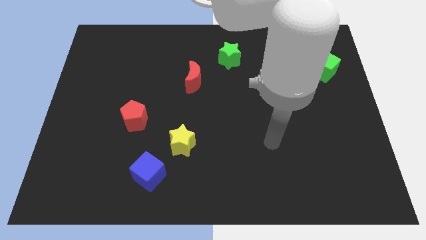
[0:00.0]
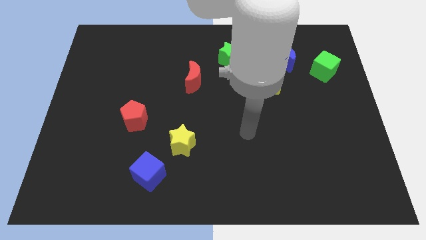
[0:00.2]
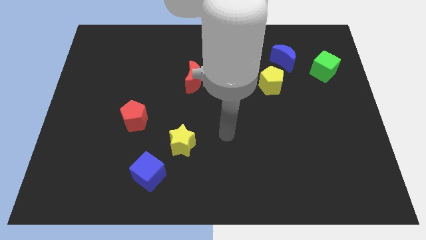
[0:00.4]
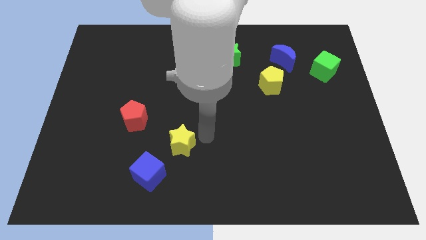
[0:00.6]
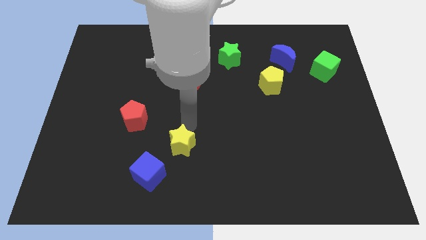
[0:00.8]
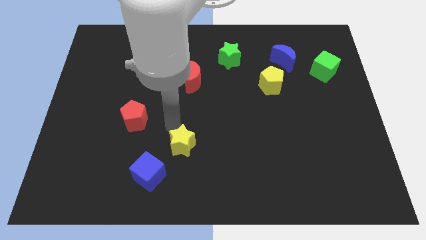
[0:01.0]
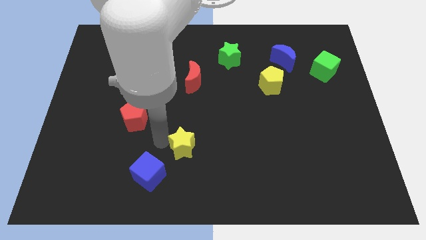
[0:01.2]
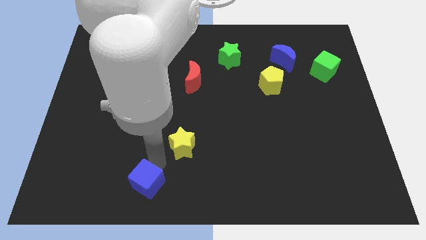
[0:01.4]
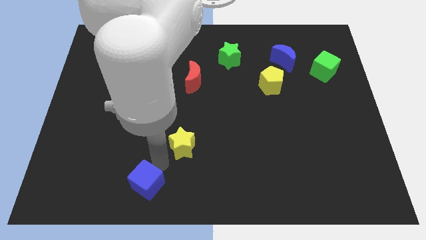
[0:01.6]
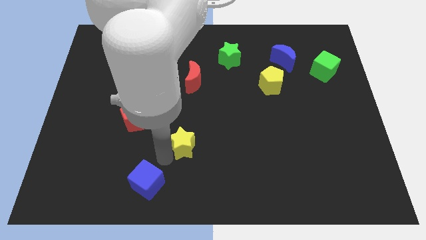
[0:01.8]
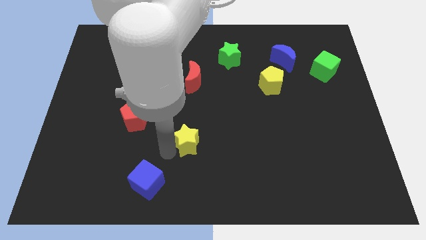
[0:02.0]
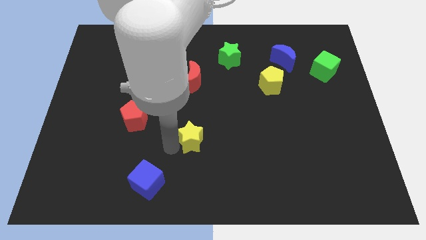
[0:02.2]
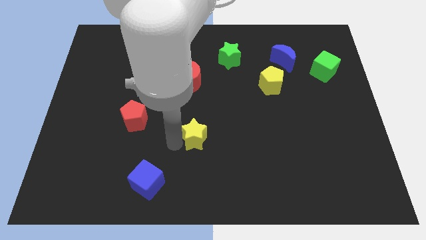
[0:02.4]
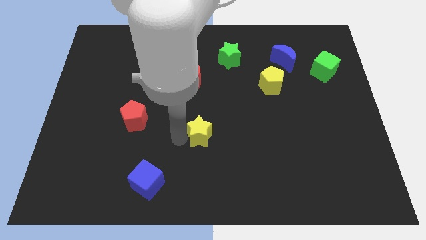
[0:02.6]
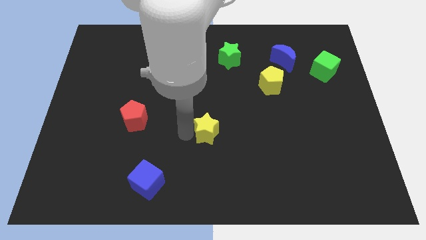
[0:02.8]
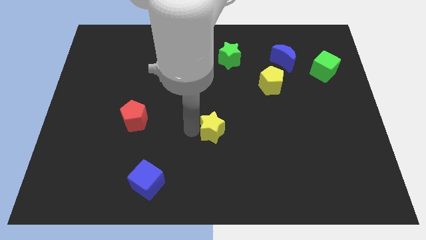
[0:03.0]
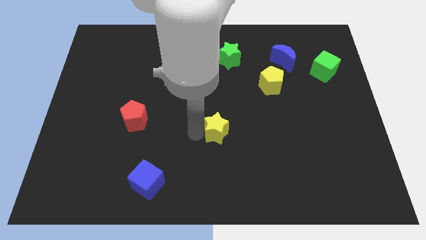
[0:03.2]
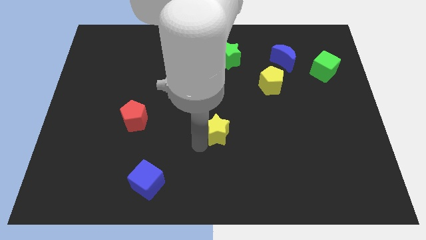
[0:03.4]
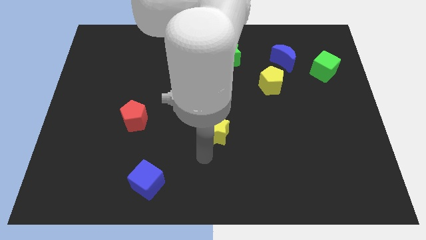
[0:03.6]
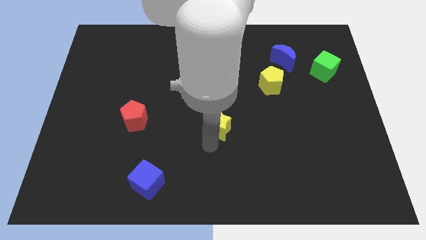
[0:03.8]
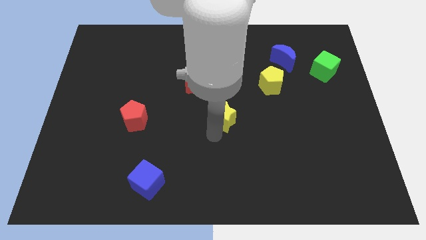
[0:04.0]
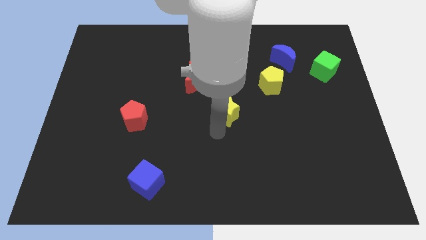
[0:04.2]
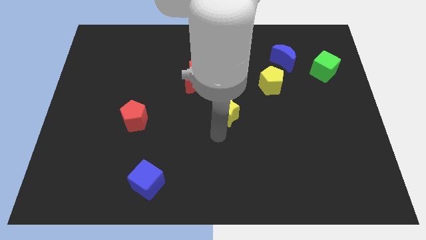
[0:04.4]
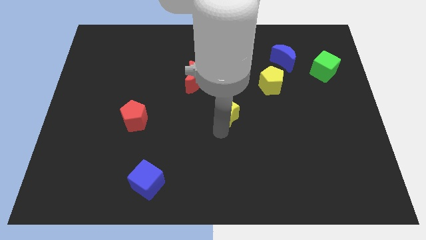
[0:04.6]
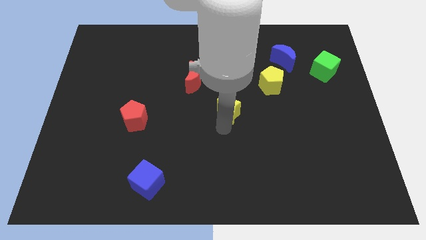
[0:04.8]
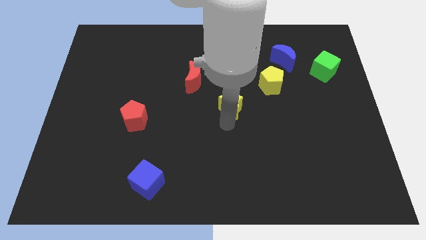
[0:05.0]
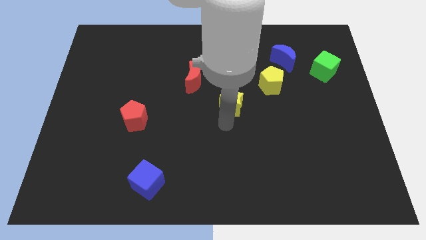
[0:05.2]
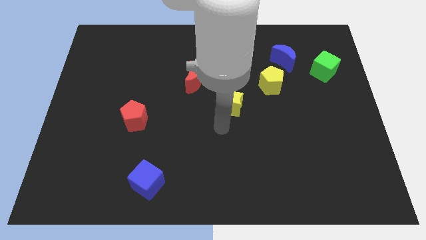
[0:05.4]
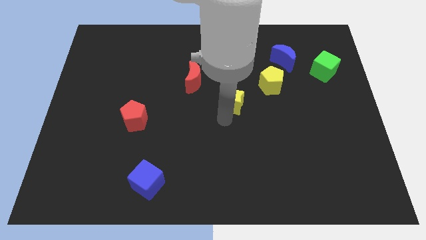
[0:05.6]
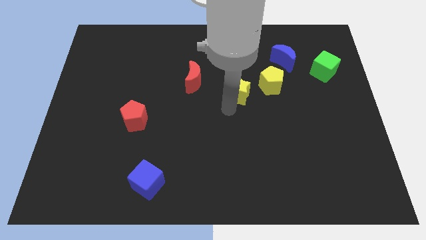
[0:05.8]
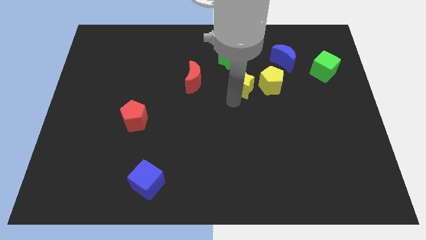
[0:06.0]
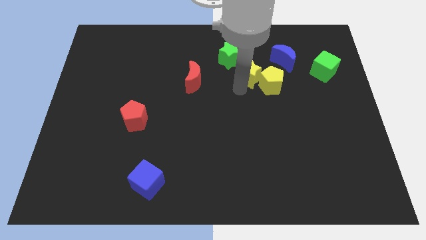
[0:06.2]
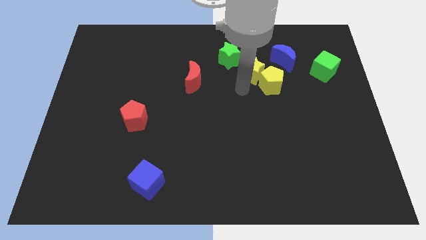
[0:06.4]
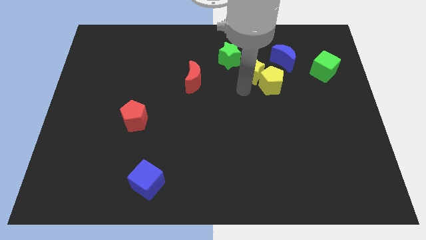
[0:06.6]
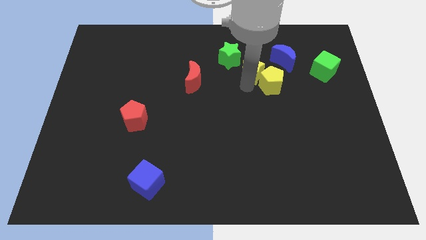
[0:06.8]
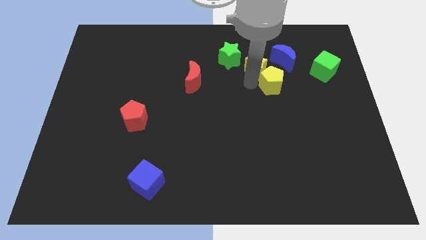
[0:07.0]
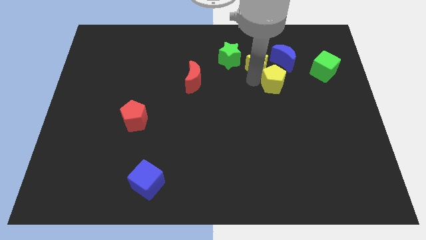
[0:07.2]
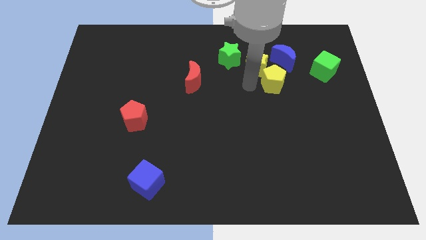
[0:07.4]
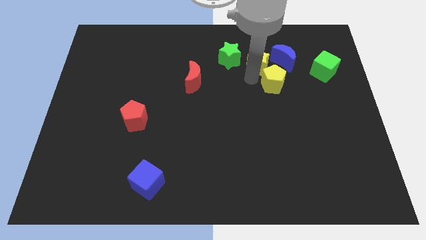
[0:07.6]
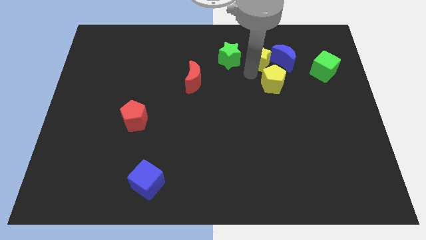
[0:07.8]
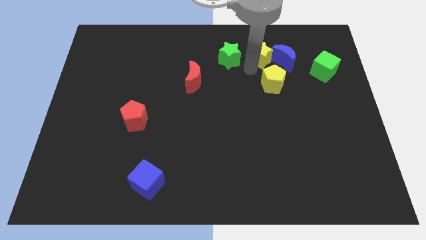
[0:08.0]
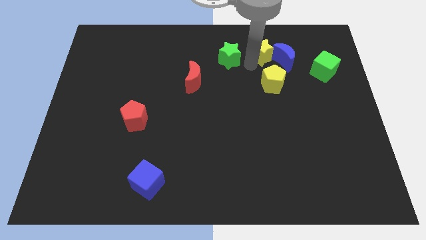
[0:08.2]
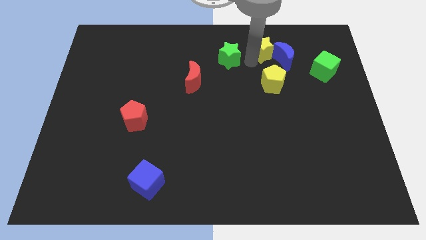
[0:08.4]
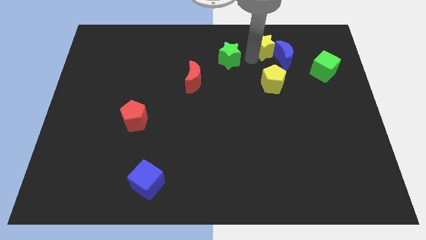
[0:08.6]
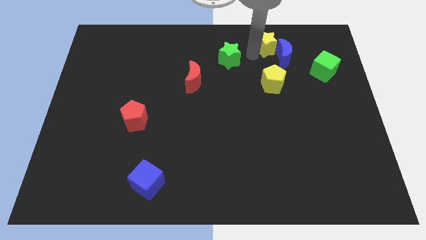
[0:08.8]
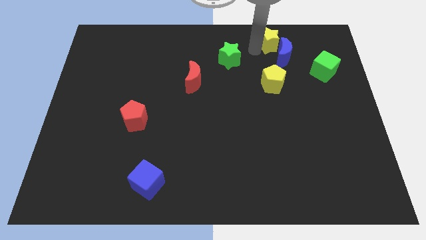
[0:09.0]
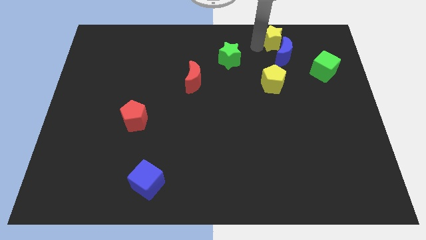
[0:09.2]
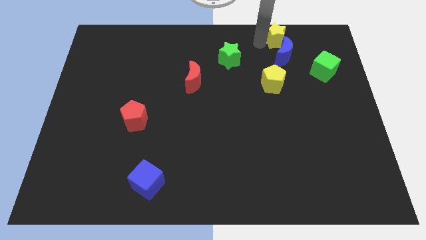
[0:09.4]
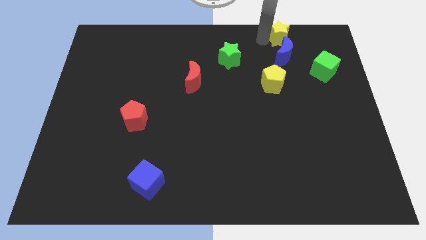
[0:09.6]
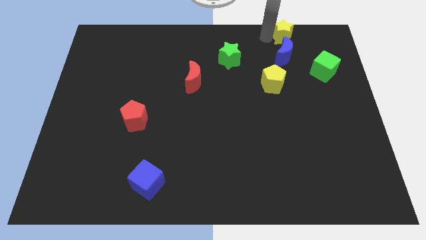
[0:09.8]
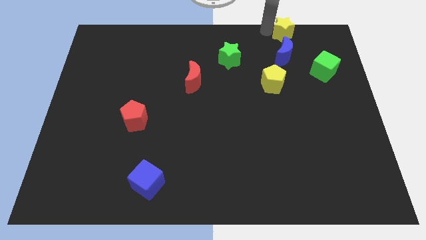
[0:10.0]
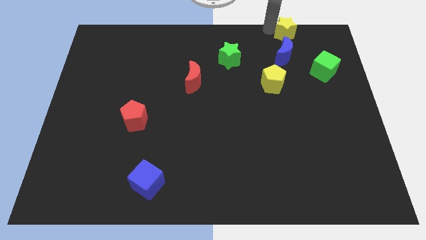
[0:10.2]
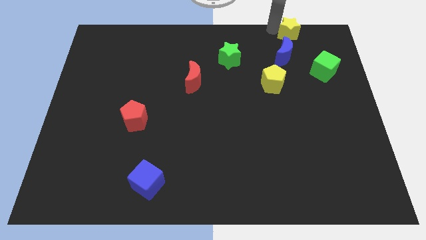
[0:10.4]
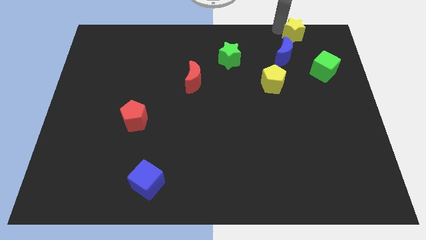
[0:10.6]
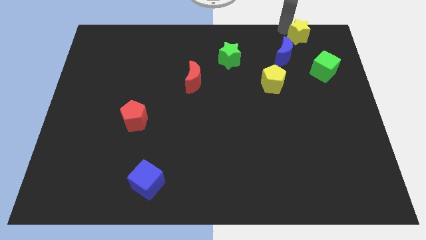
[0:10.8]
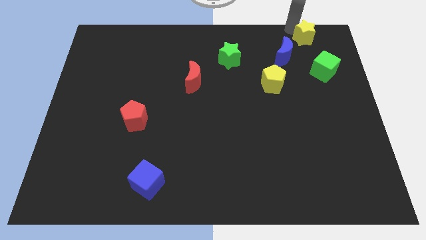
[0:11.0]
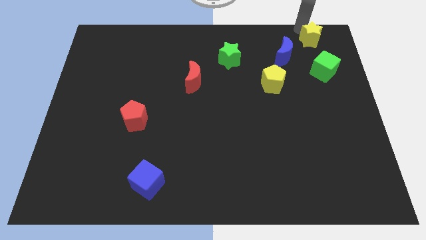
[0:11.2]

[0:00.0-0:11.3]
put the yellow star to the top right corner
